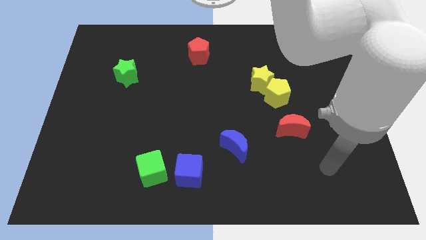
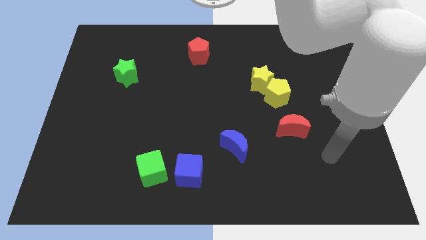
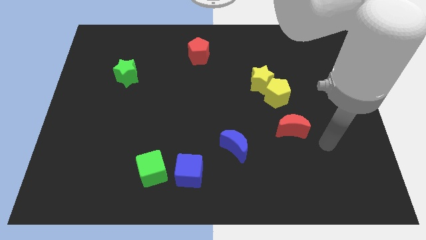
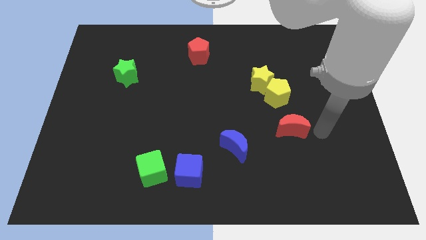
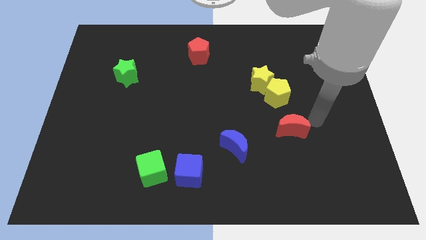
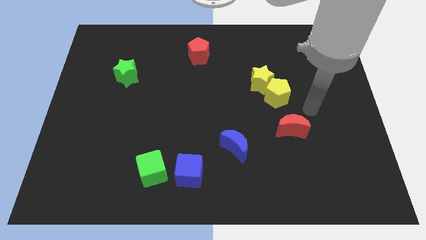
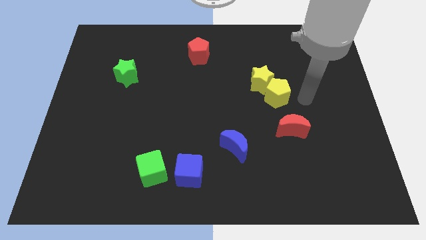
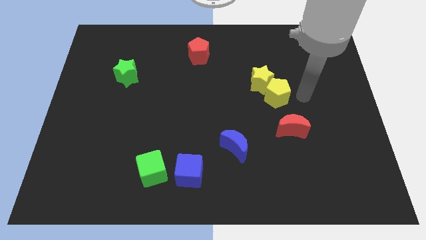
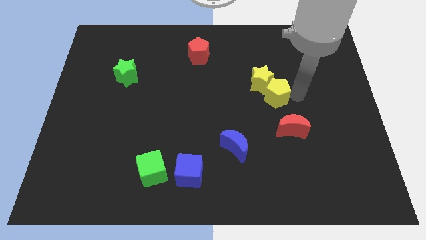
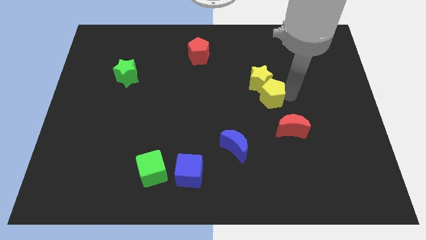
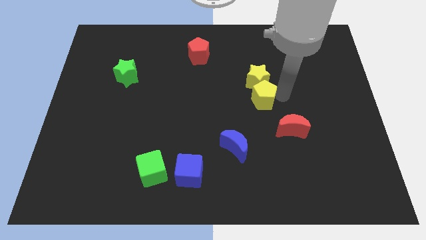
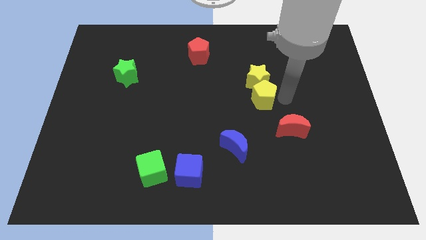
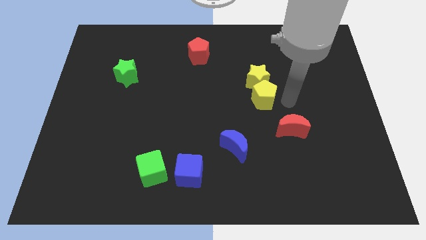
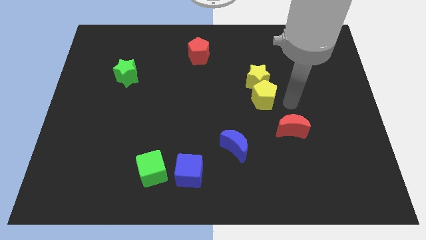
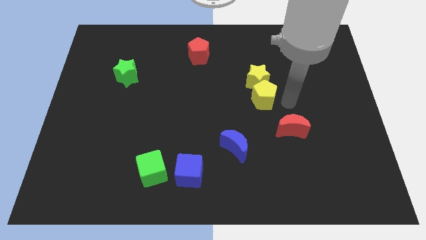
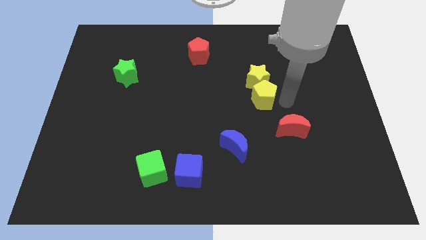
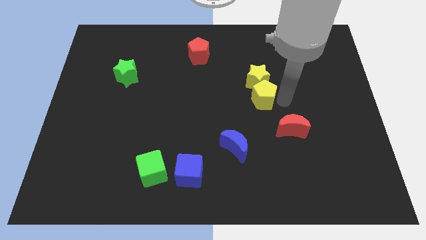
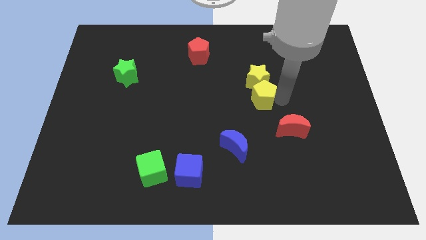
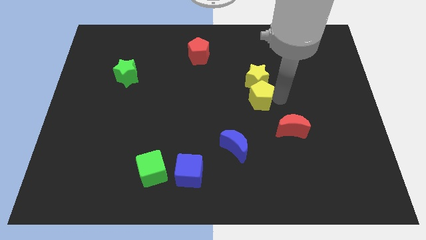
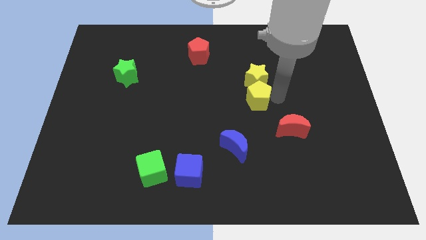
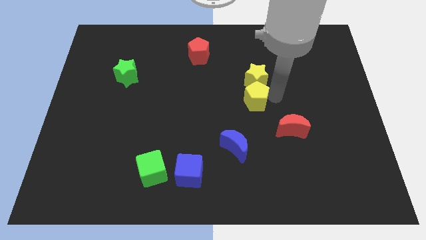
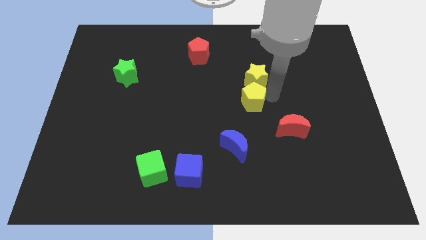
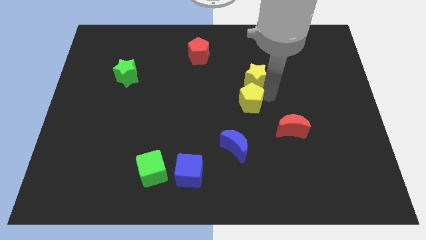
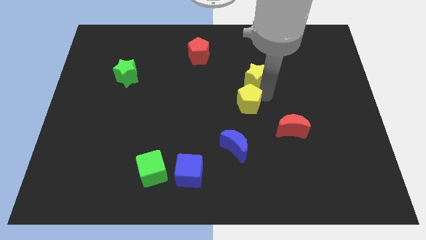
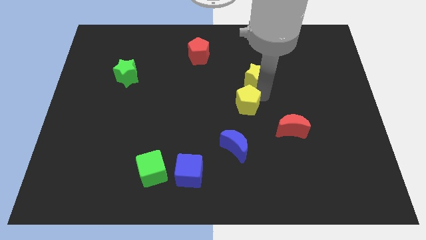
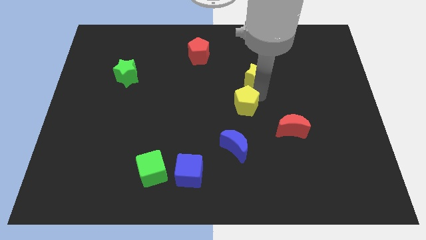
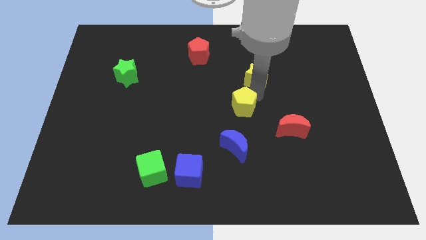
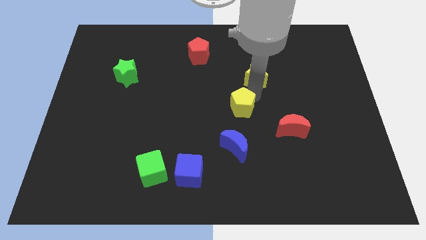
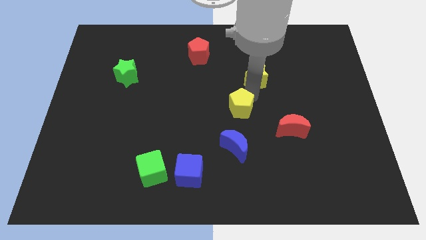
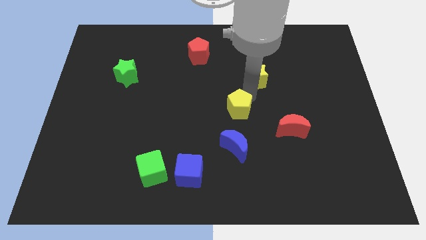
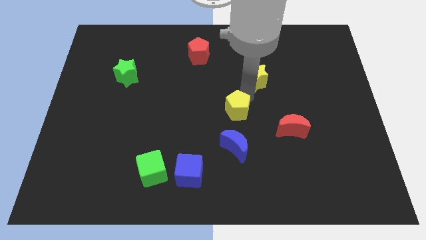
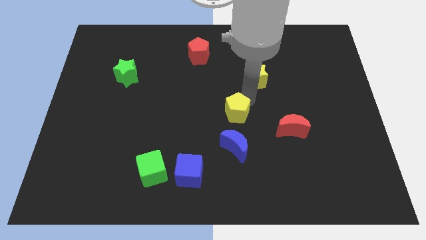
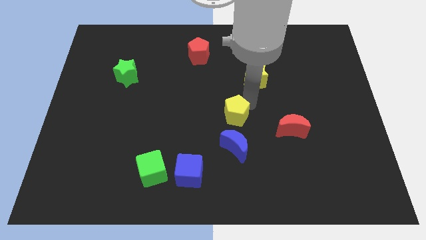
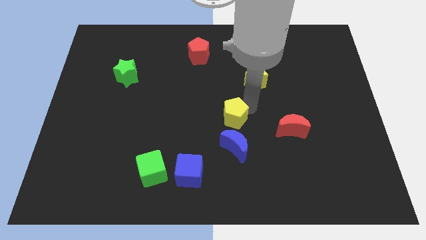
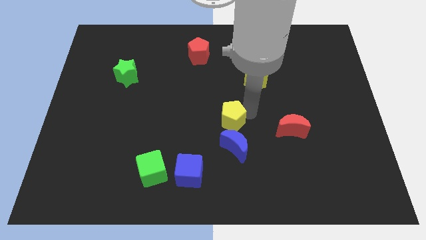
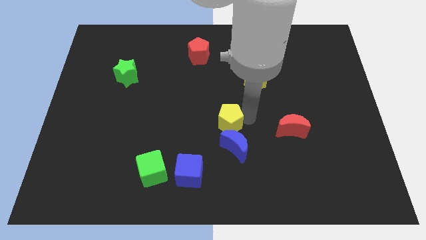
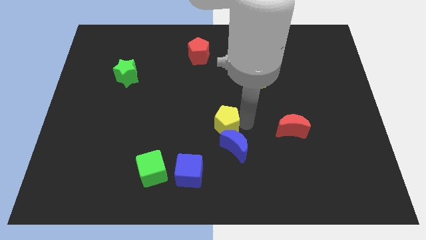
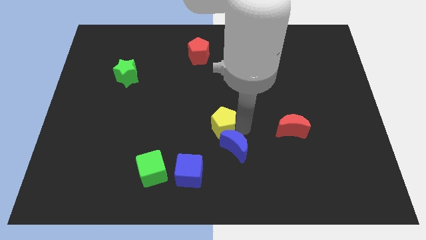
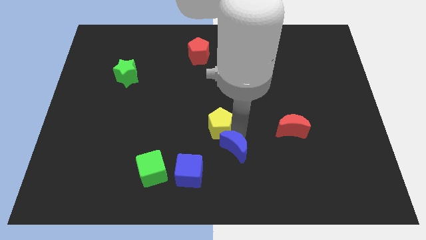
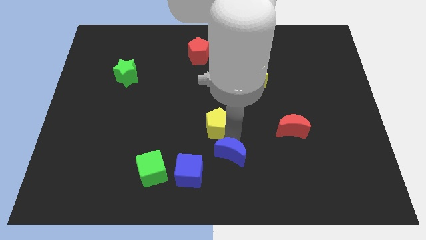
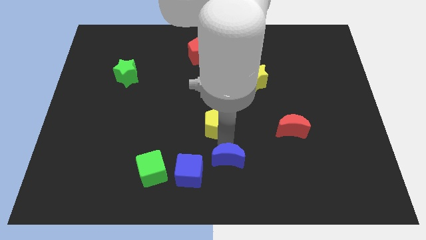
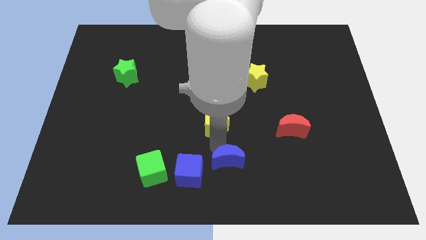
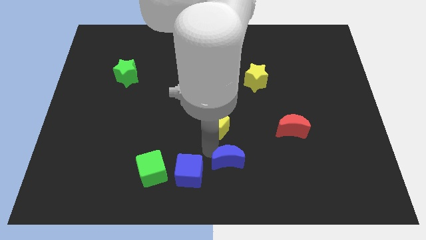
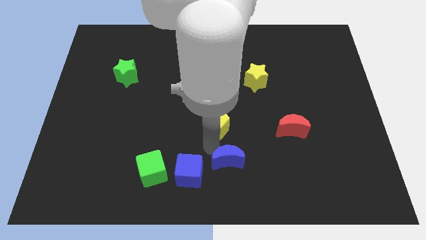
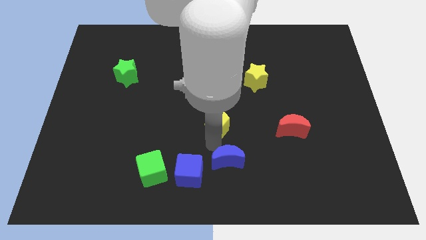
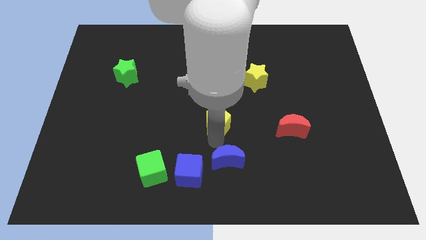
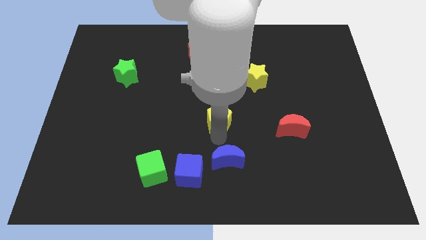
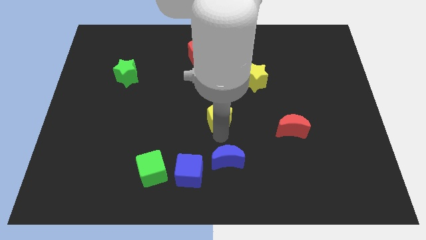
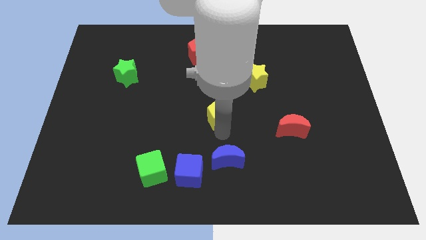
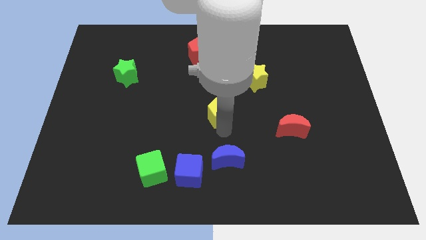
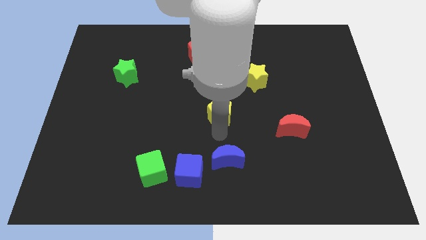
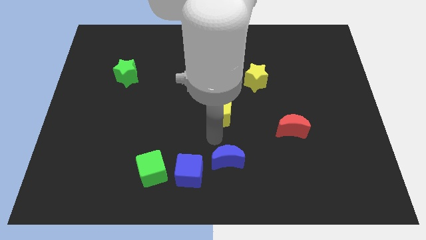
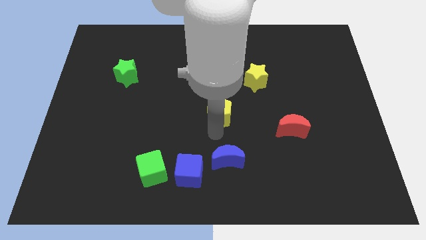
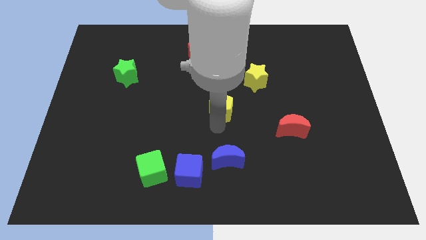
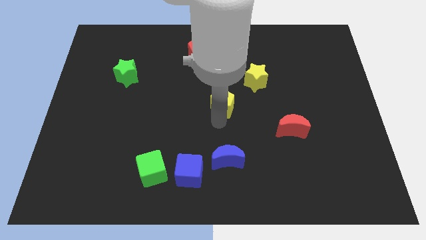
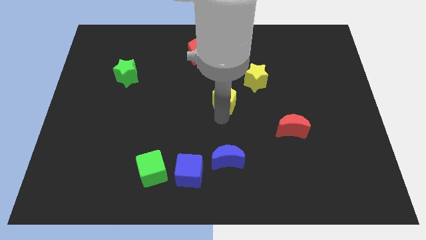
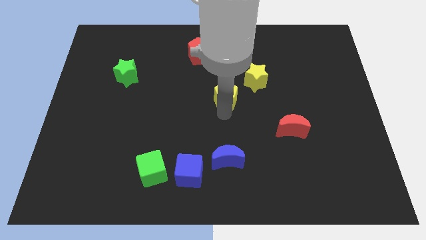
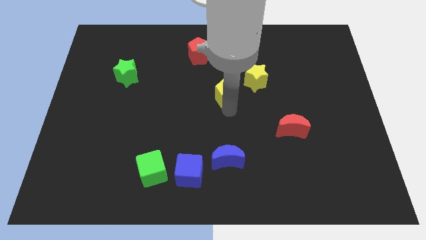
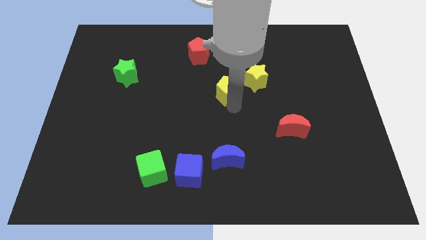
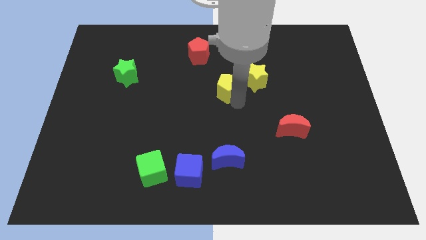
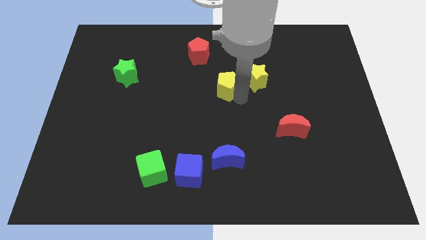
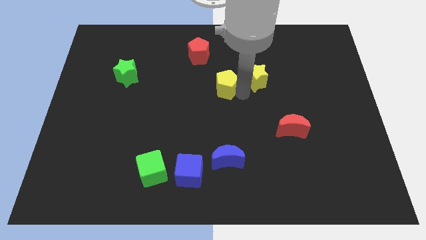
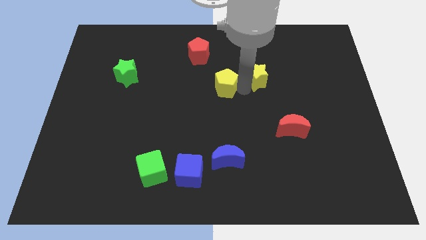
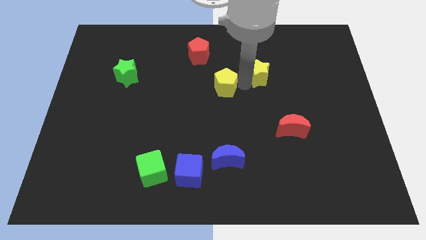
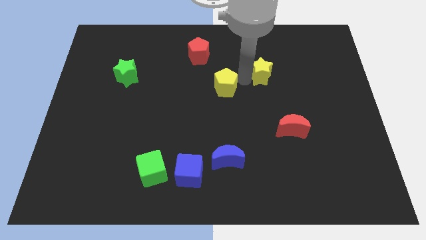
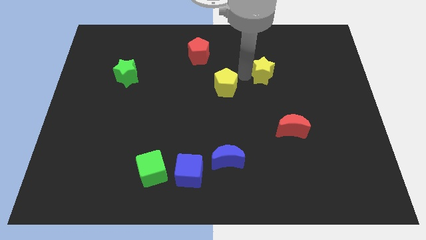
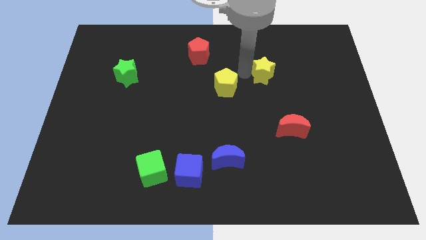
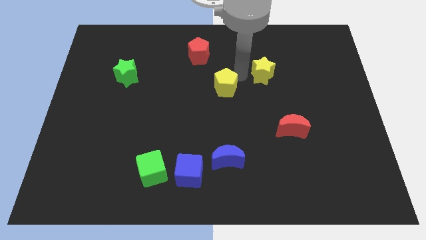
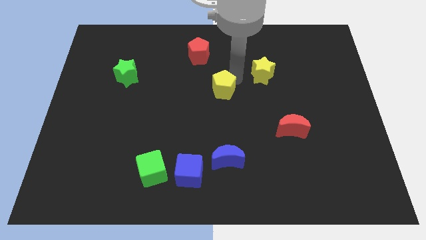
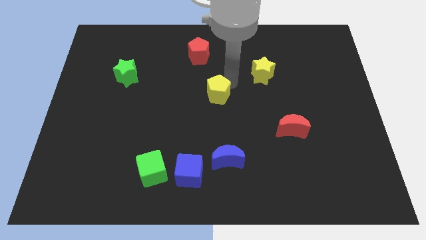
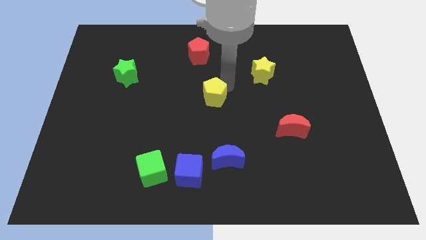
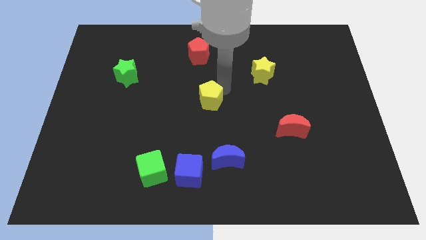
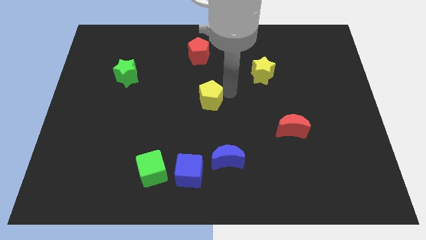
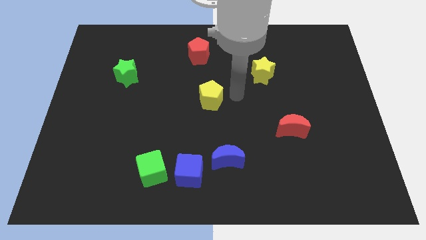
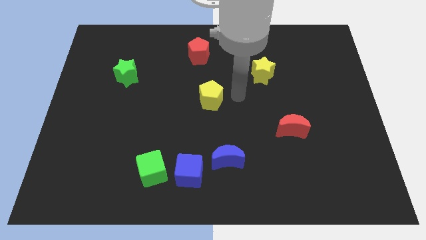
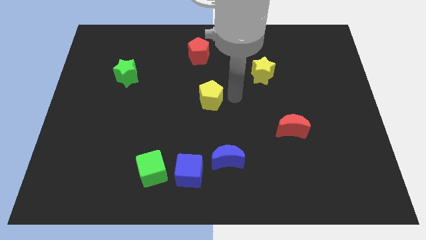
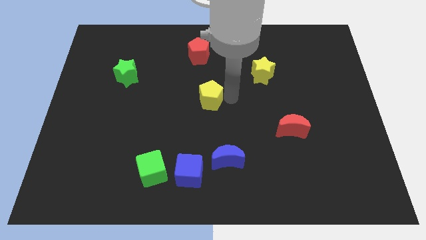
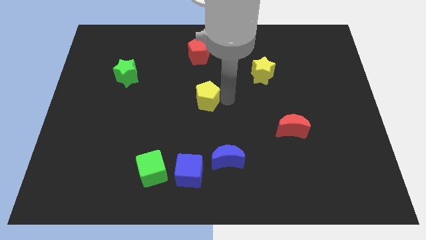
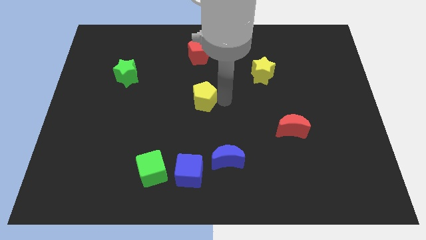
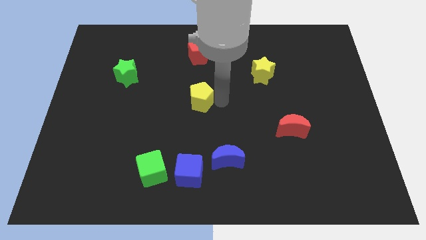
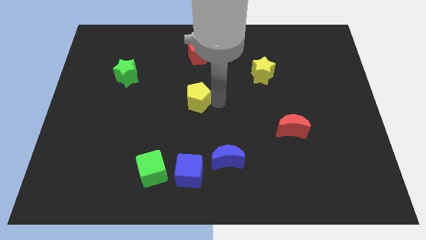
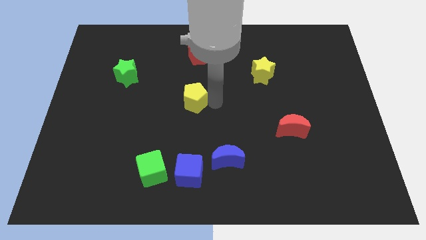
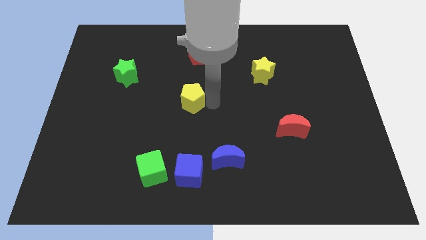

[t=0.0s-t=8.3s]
push the yellow pentagon to the left
